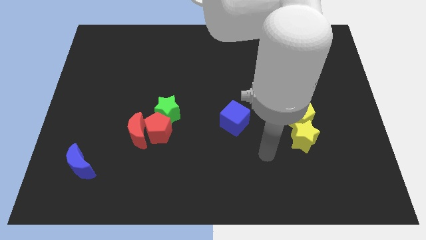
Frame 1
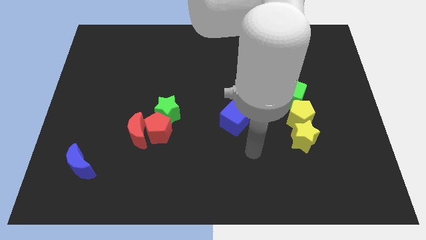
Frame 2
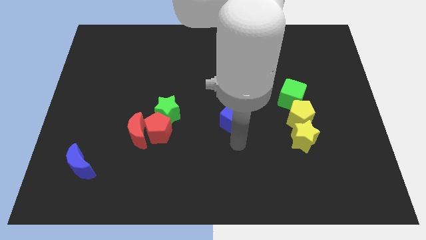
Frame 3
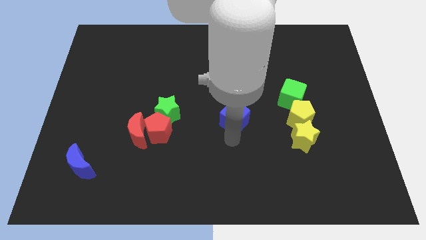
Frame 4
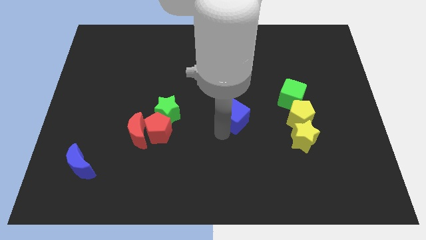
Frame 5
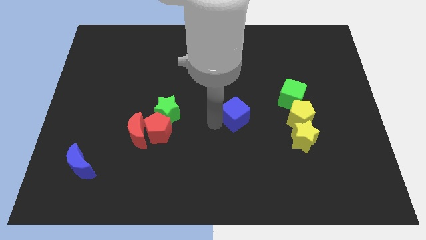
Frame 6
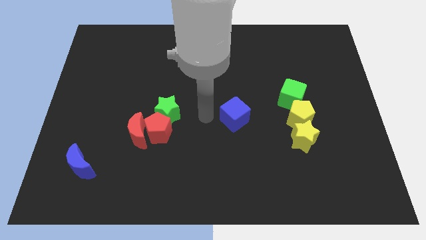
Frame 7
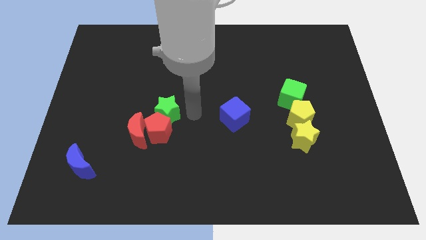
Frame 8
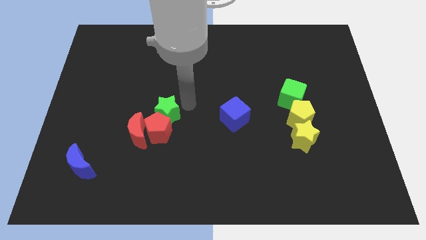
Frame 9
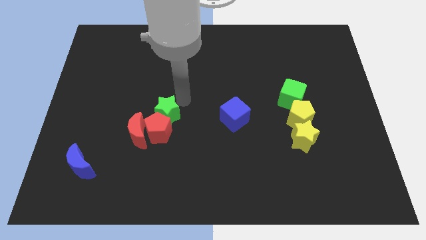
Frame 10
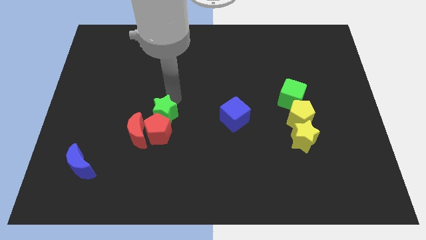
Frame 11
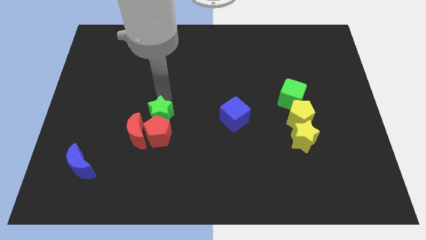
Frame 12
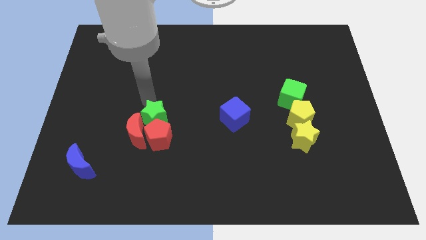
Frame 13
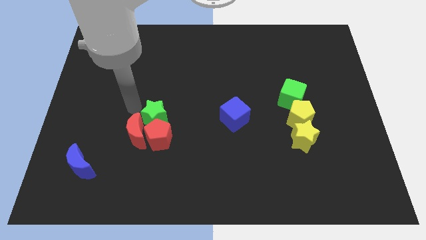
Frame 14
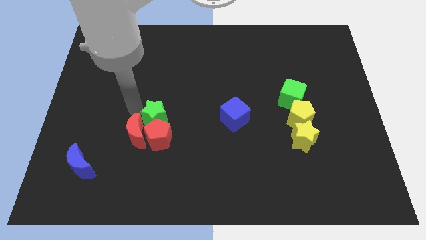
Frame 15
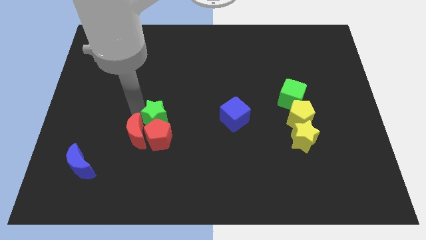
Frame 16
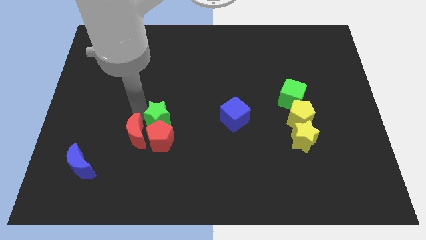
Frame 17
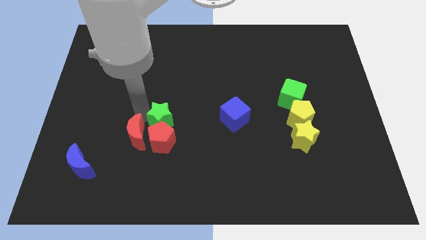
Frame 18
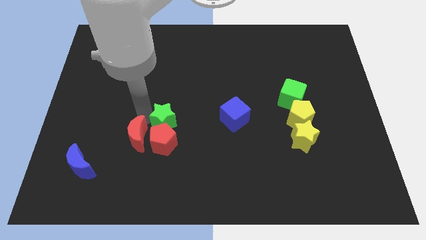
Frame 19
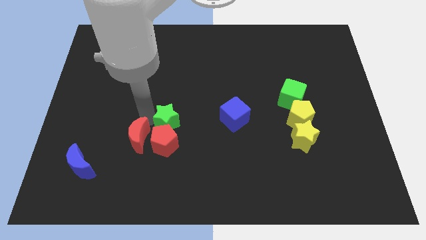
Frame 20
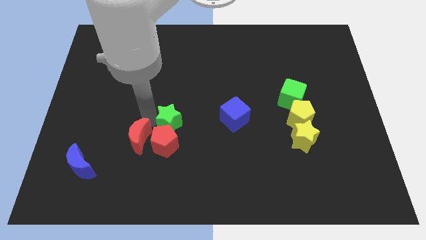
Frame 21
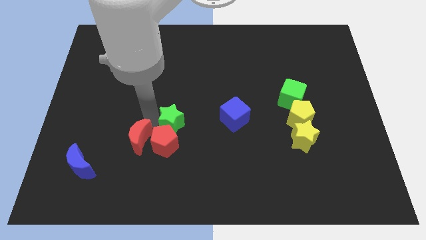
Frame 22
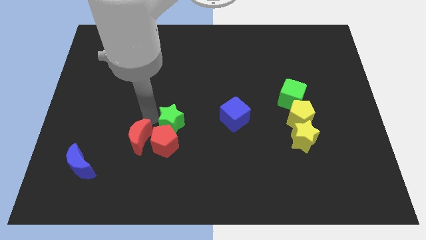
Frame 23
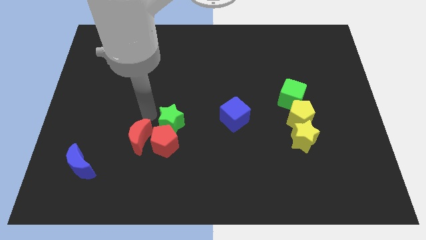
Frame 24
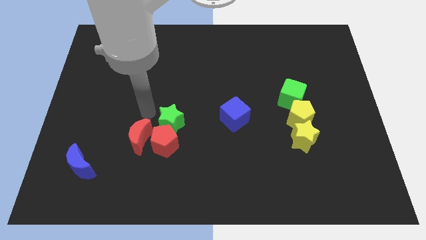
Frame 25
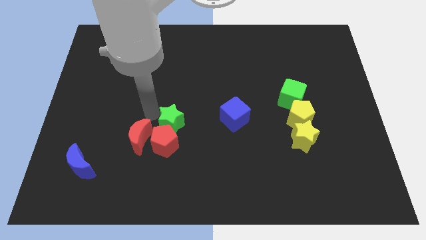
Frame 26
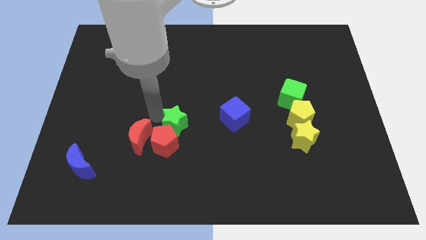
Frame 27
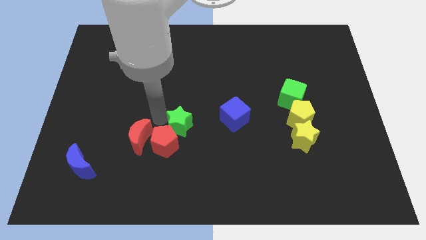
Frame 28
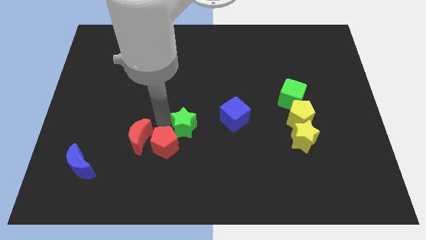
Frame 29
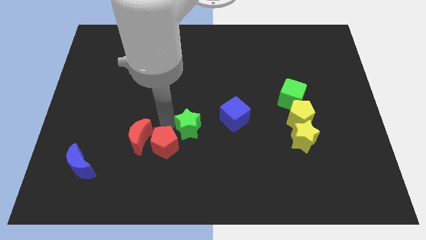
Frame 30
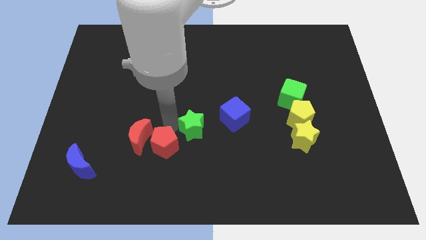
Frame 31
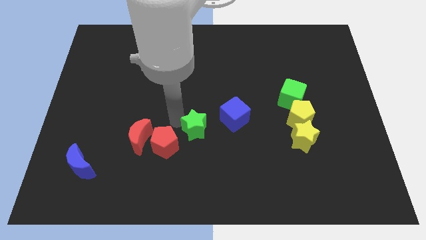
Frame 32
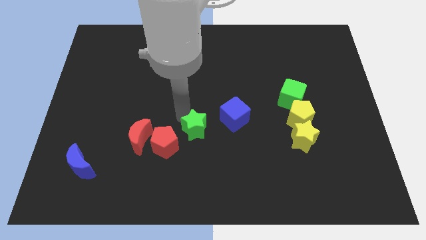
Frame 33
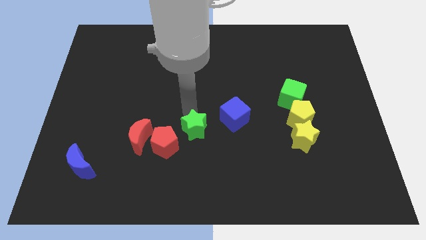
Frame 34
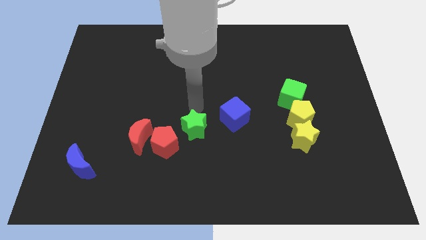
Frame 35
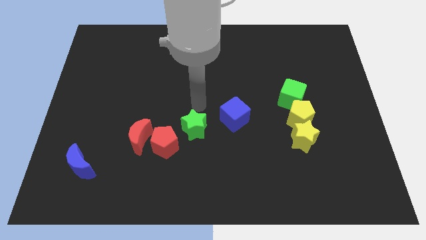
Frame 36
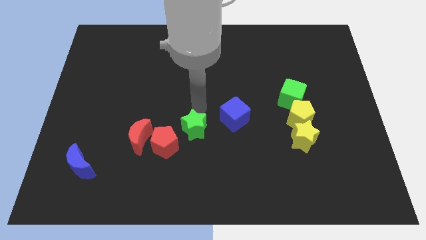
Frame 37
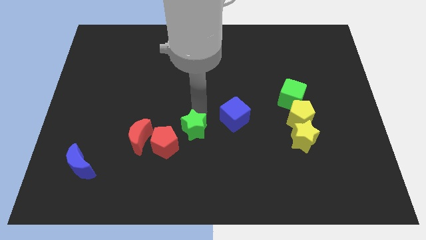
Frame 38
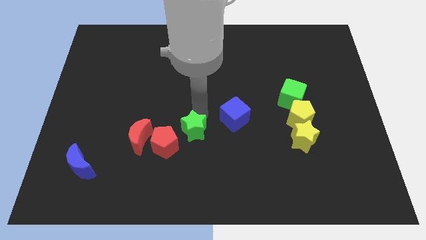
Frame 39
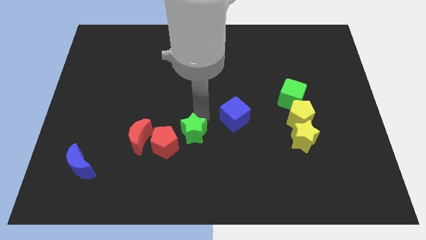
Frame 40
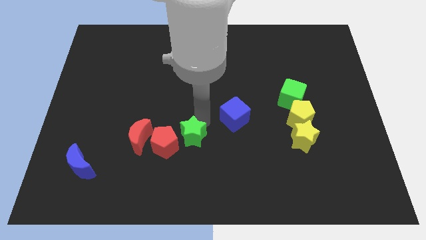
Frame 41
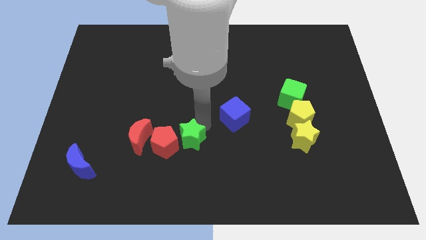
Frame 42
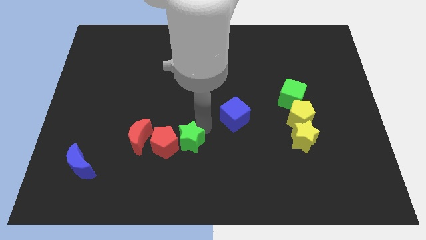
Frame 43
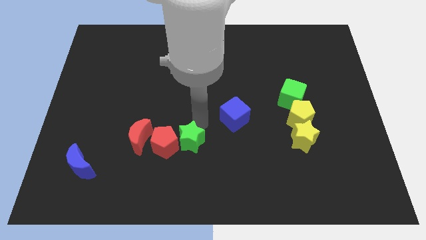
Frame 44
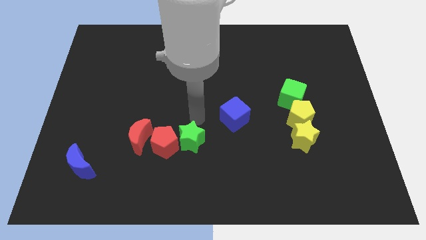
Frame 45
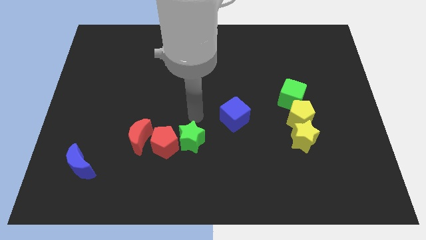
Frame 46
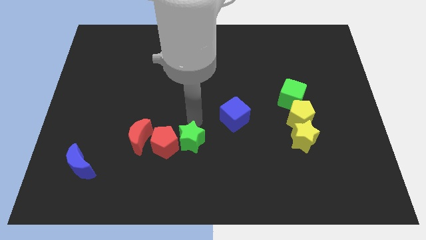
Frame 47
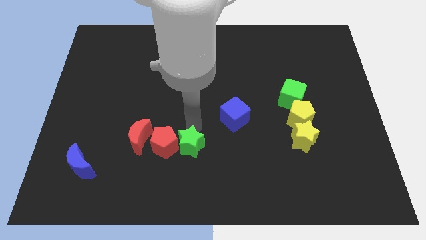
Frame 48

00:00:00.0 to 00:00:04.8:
move the green star diagonally down and to the right of the red pentagon

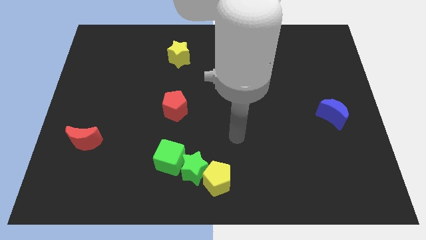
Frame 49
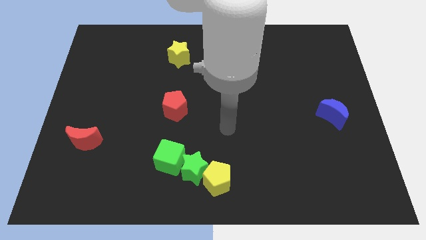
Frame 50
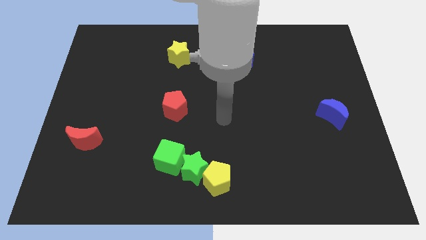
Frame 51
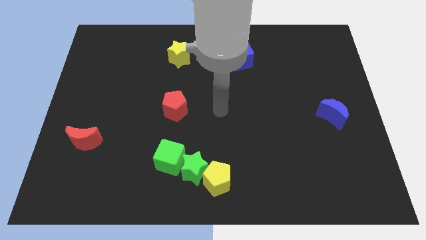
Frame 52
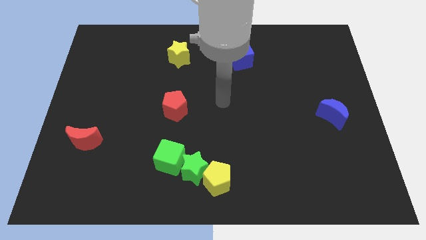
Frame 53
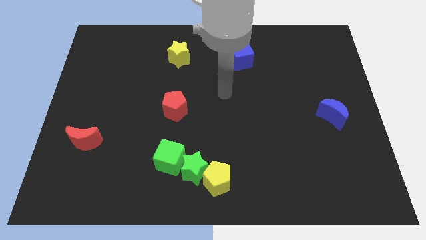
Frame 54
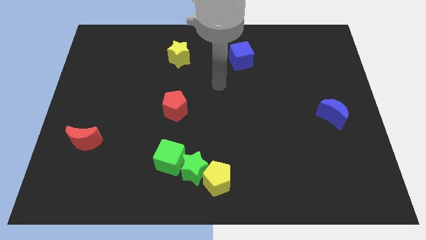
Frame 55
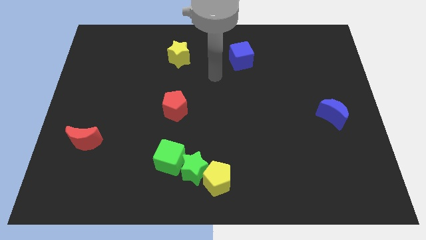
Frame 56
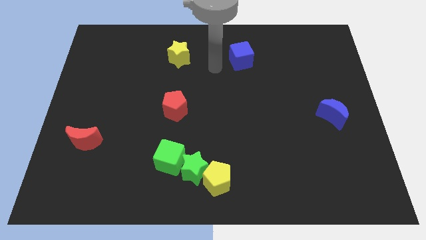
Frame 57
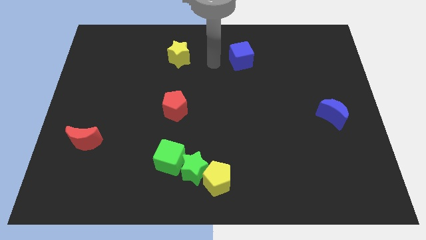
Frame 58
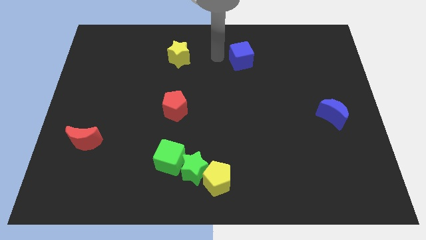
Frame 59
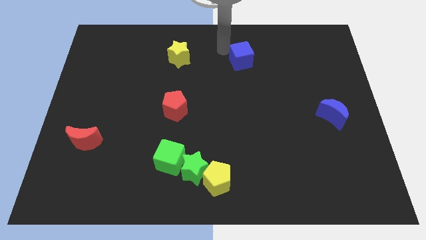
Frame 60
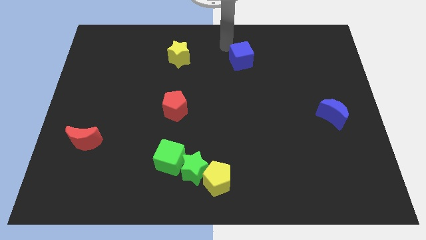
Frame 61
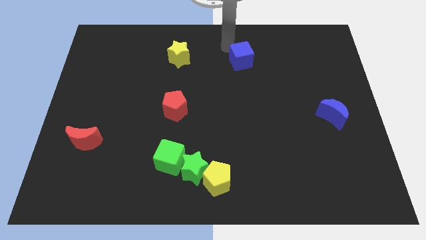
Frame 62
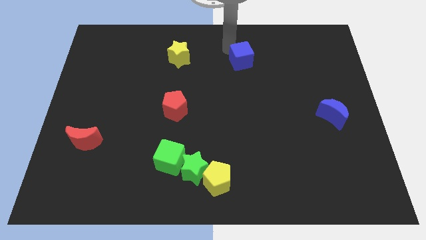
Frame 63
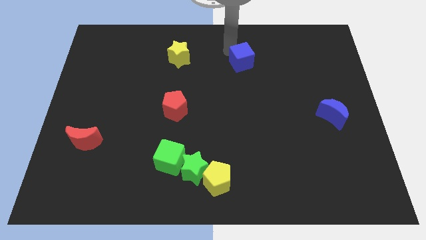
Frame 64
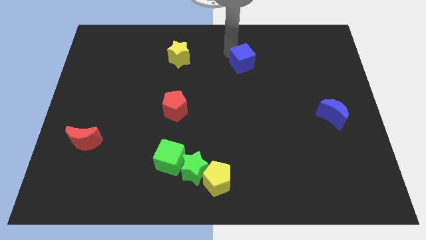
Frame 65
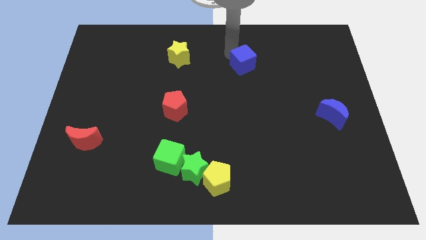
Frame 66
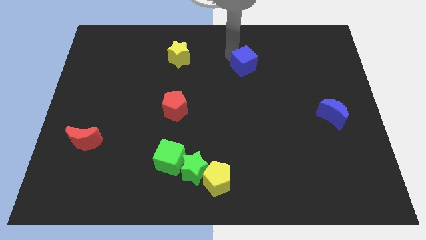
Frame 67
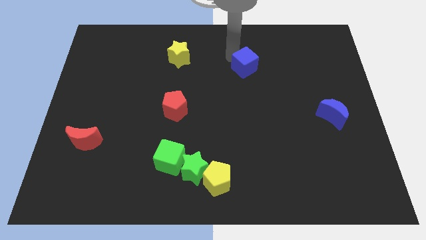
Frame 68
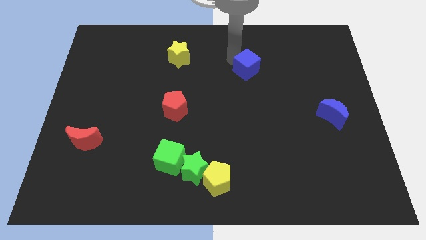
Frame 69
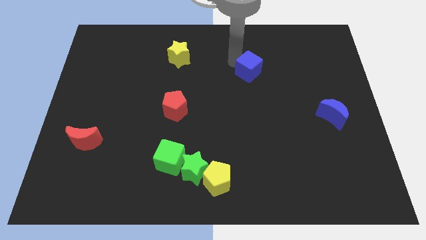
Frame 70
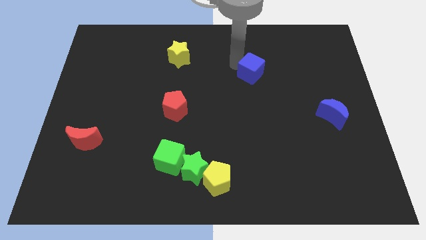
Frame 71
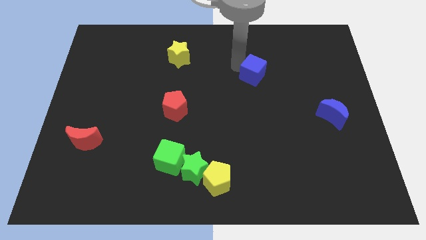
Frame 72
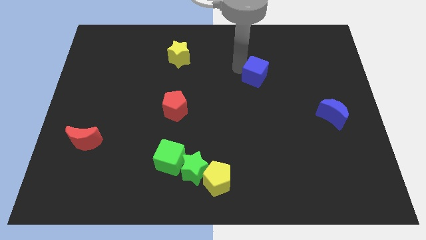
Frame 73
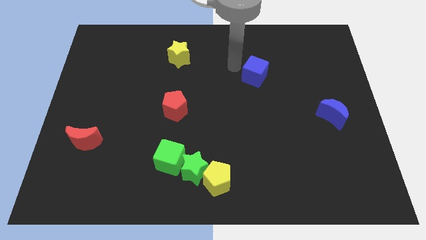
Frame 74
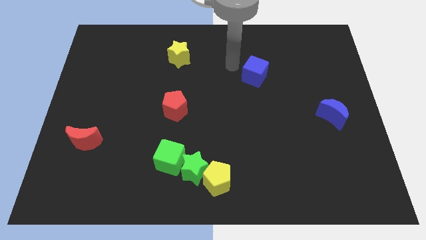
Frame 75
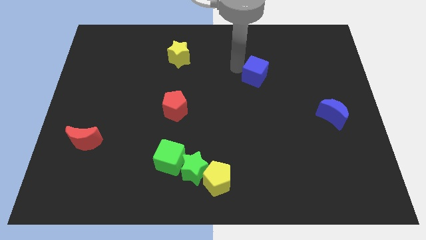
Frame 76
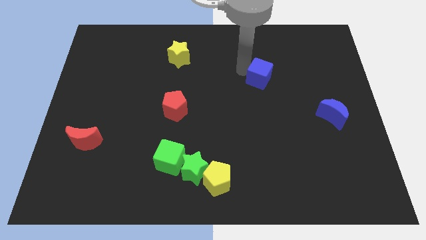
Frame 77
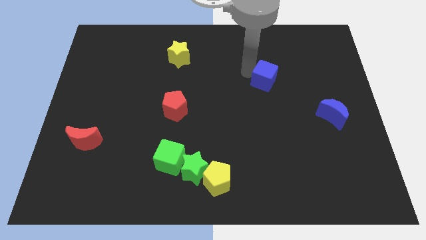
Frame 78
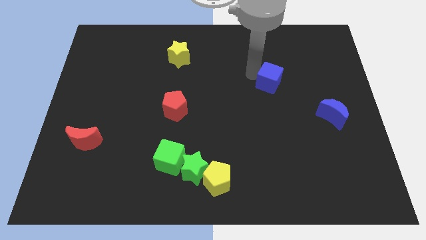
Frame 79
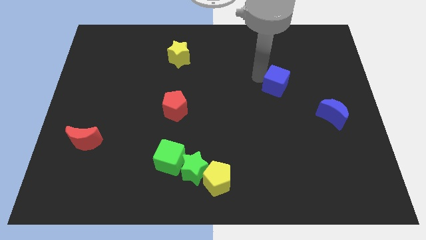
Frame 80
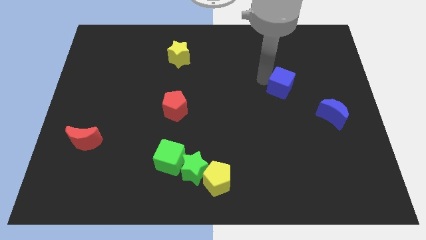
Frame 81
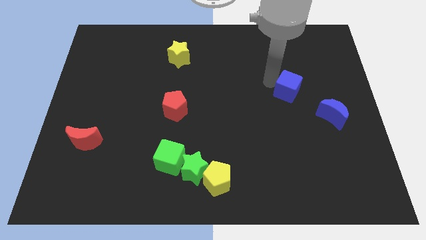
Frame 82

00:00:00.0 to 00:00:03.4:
slide the blue cube diagonally up and to the left of the blue moon
